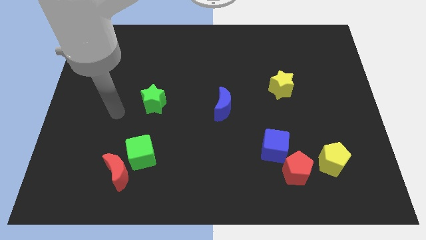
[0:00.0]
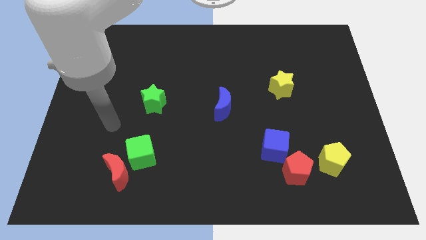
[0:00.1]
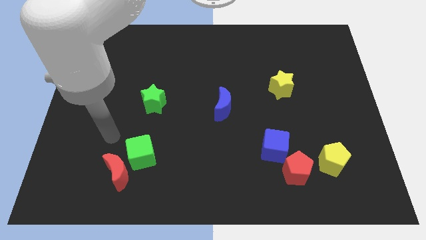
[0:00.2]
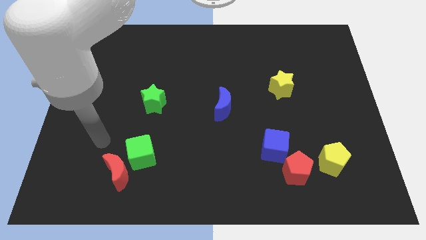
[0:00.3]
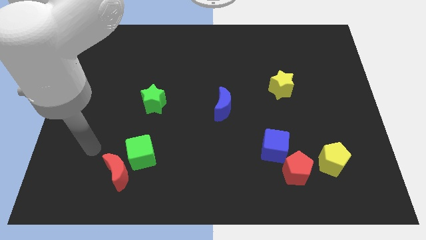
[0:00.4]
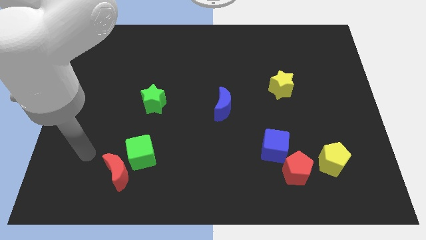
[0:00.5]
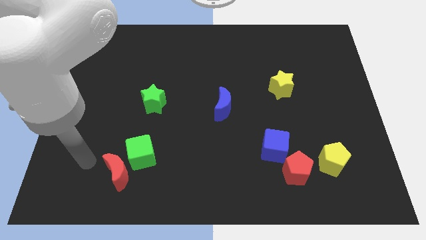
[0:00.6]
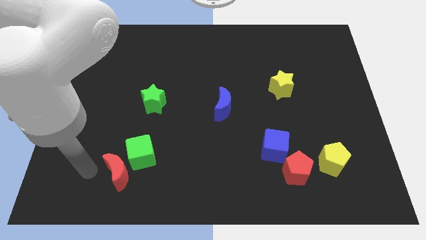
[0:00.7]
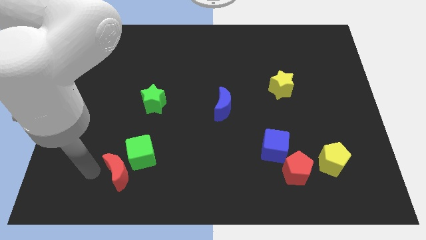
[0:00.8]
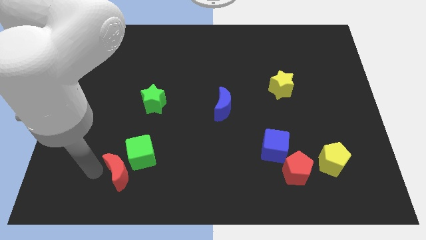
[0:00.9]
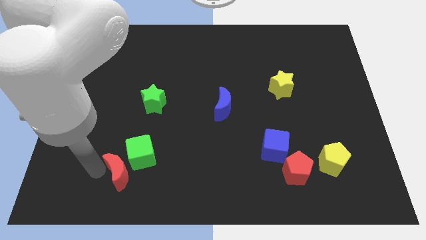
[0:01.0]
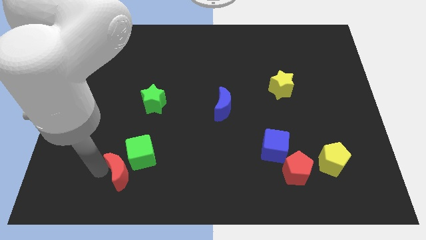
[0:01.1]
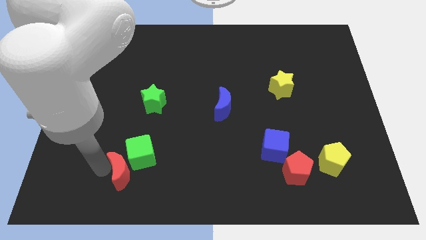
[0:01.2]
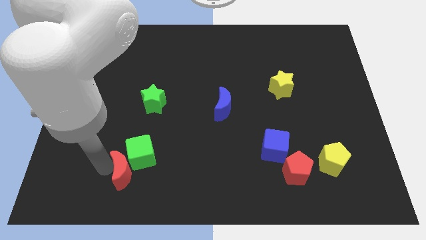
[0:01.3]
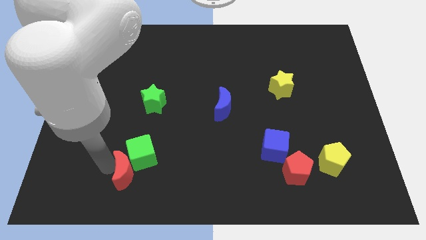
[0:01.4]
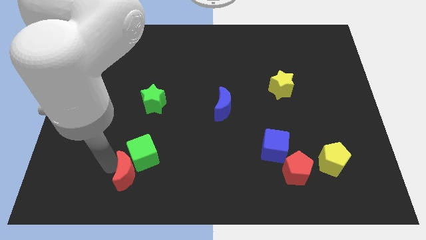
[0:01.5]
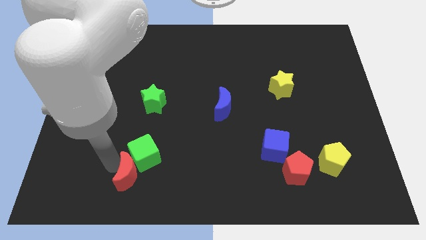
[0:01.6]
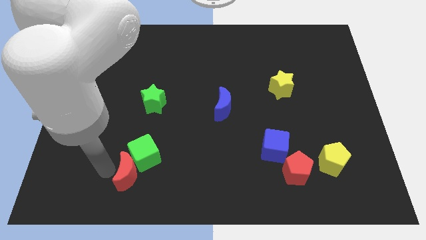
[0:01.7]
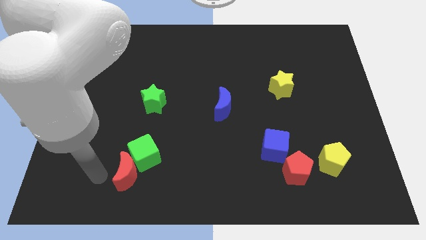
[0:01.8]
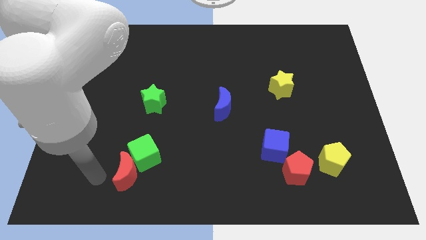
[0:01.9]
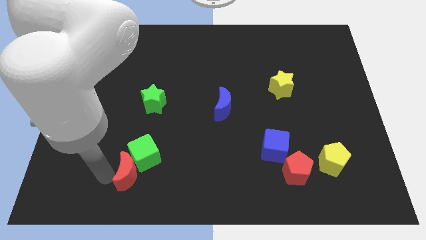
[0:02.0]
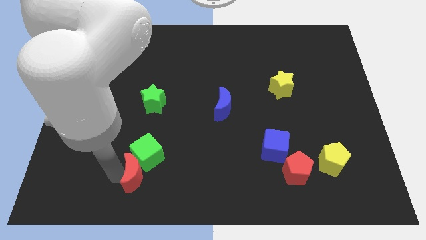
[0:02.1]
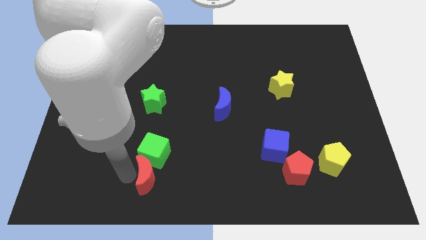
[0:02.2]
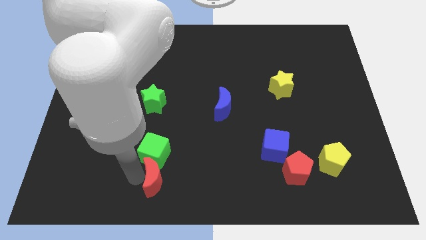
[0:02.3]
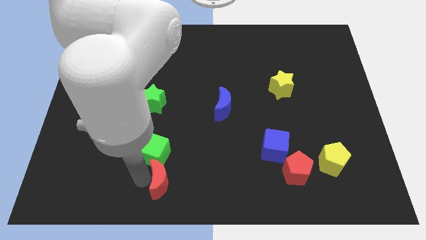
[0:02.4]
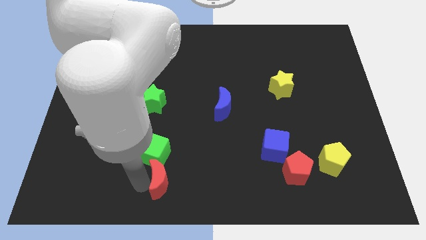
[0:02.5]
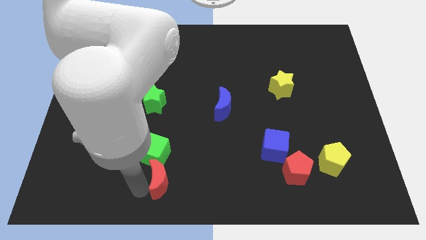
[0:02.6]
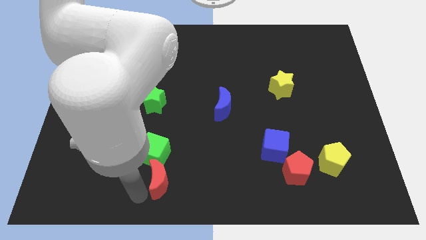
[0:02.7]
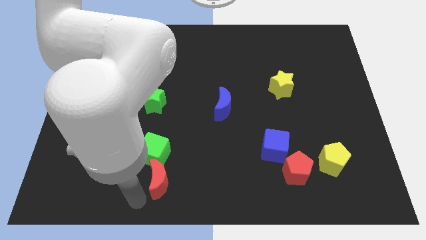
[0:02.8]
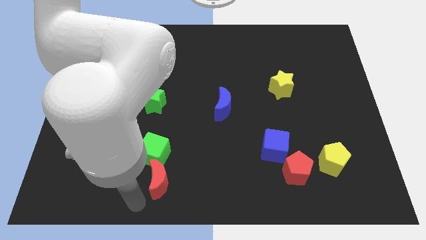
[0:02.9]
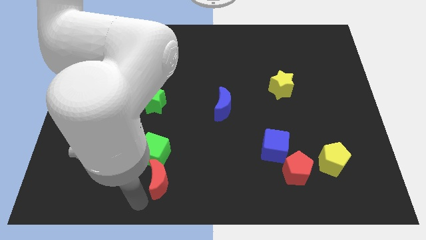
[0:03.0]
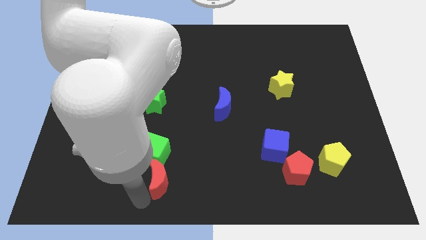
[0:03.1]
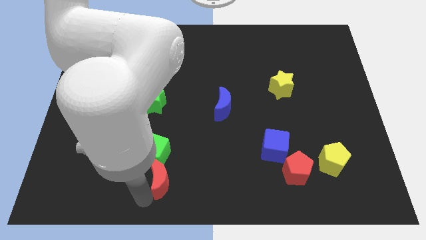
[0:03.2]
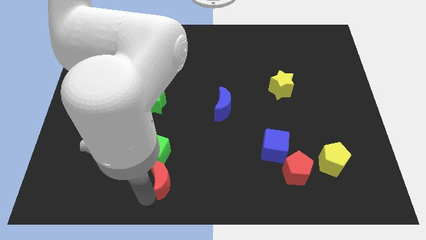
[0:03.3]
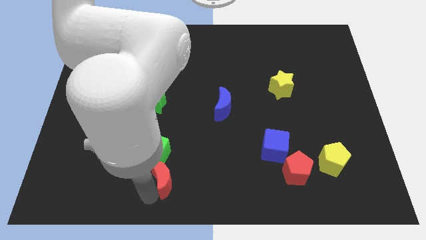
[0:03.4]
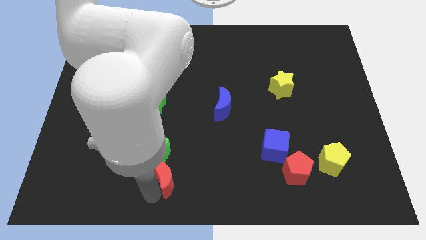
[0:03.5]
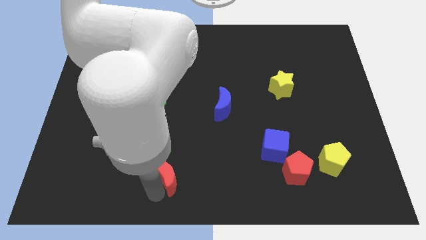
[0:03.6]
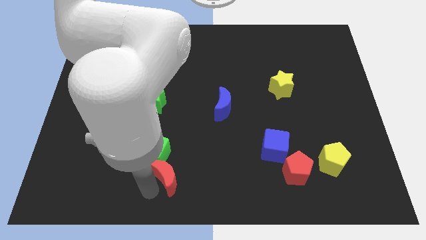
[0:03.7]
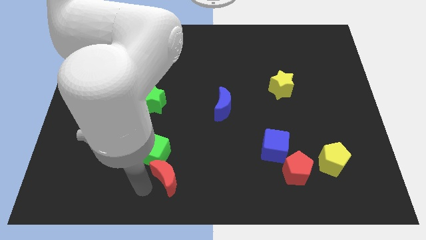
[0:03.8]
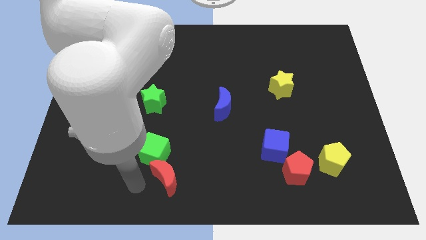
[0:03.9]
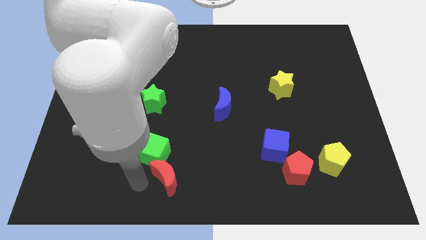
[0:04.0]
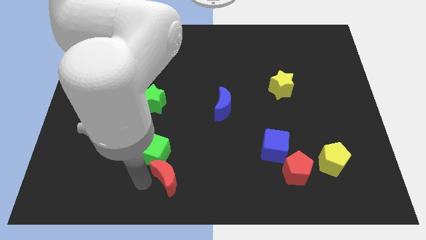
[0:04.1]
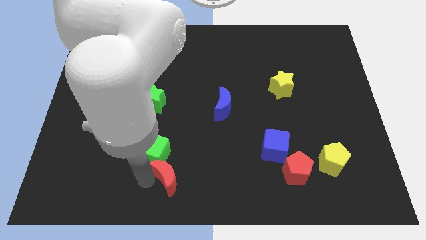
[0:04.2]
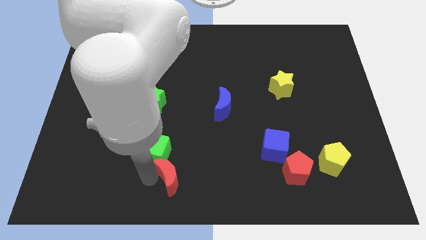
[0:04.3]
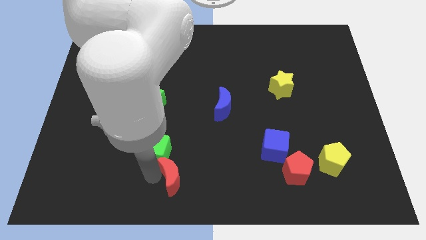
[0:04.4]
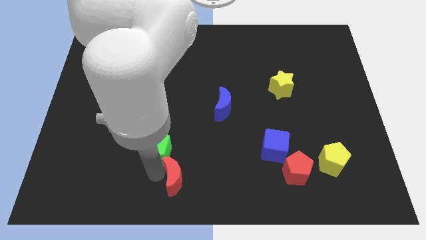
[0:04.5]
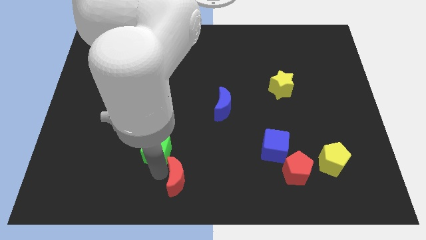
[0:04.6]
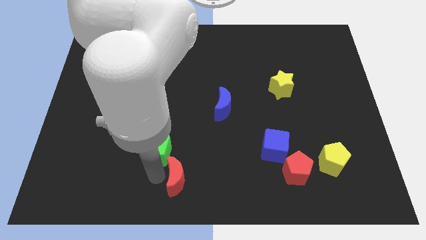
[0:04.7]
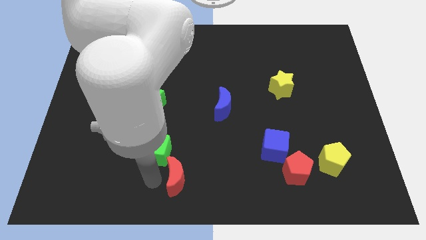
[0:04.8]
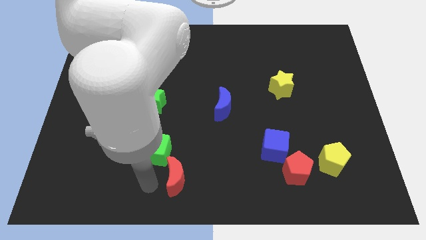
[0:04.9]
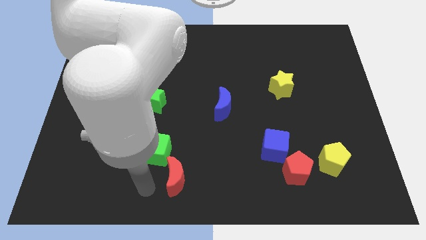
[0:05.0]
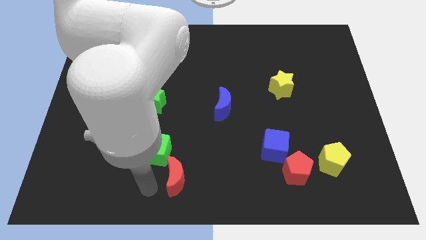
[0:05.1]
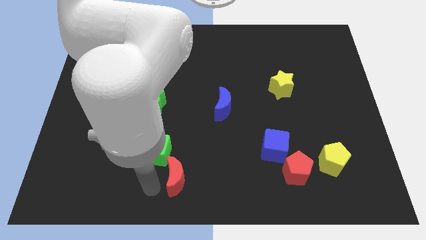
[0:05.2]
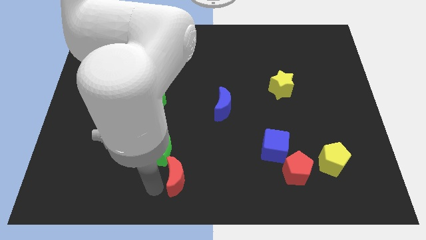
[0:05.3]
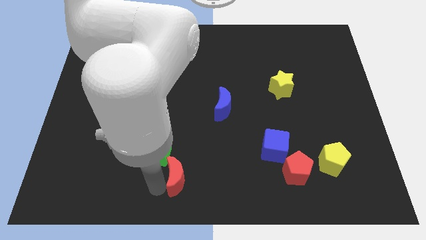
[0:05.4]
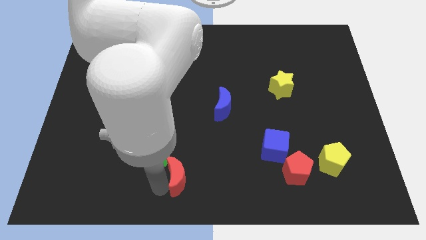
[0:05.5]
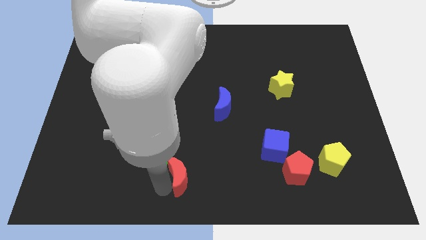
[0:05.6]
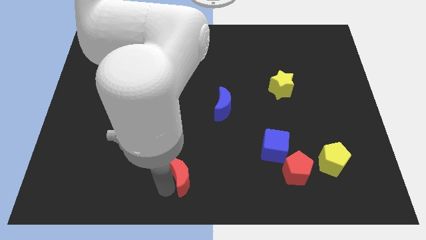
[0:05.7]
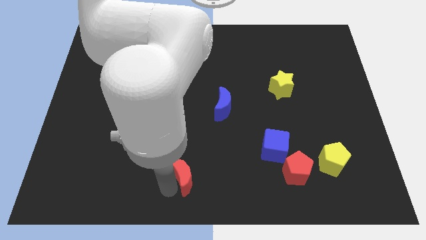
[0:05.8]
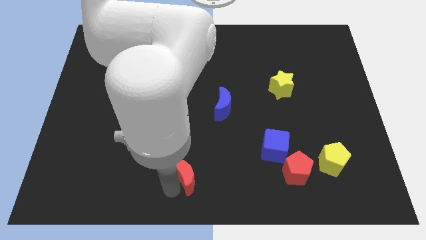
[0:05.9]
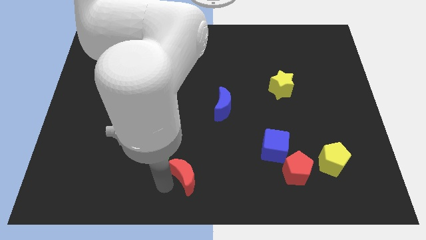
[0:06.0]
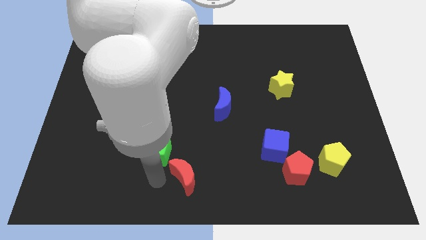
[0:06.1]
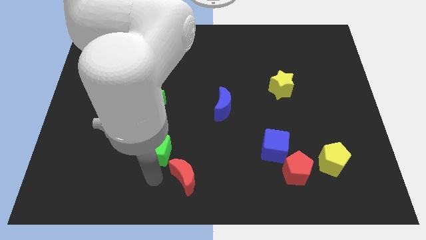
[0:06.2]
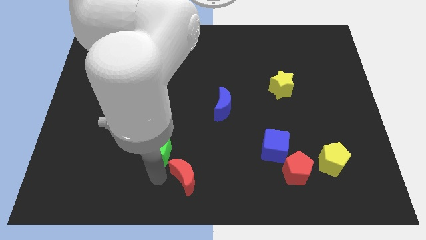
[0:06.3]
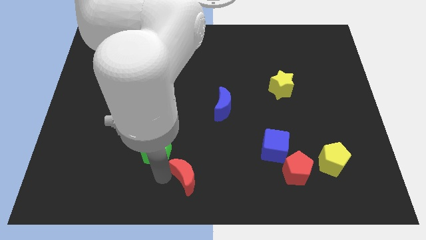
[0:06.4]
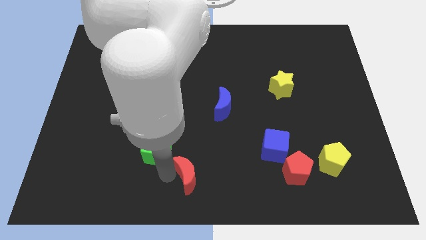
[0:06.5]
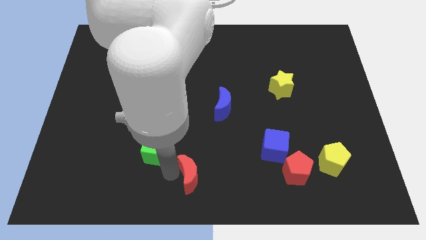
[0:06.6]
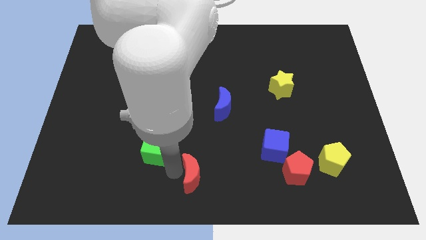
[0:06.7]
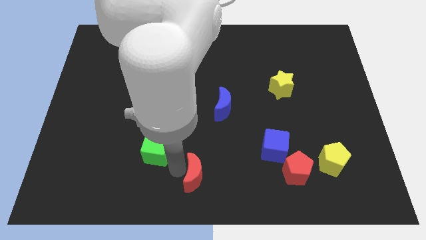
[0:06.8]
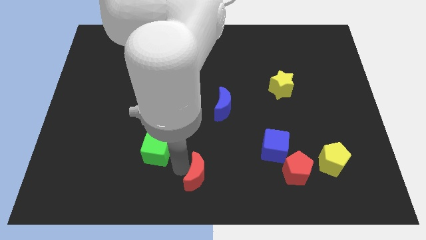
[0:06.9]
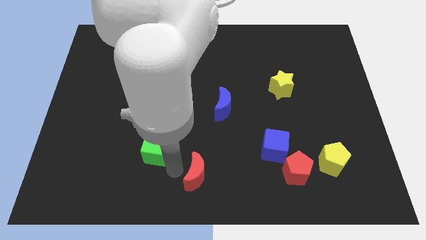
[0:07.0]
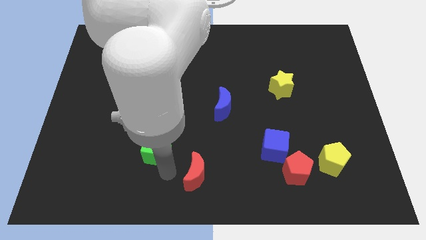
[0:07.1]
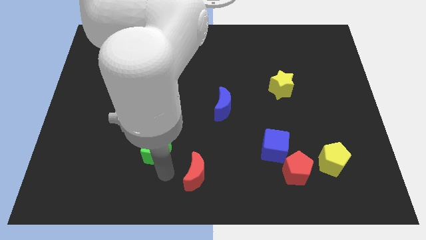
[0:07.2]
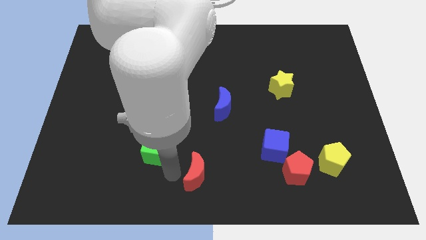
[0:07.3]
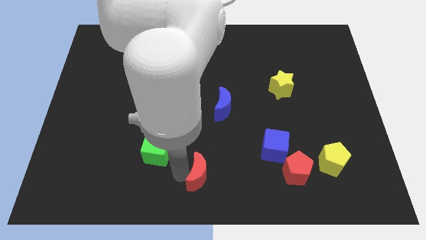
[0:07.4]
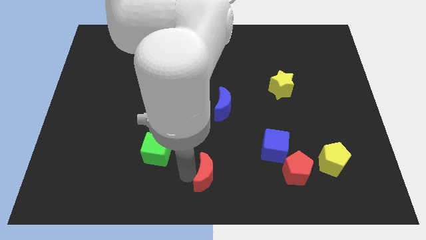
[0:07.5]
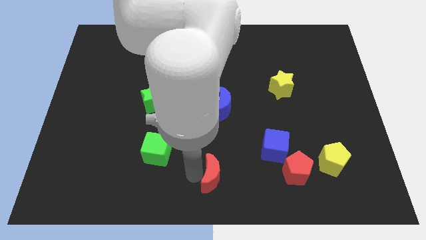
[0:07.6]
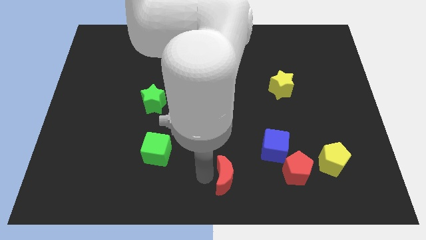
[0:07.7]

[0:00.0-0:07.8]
slide the red moon to the right
